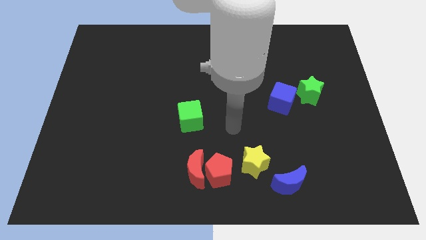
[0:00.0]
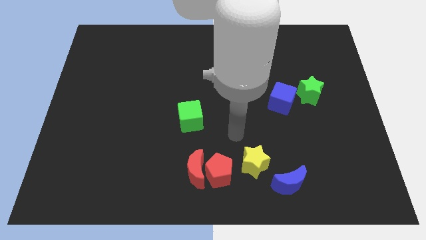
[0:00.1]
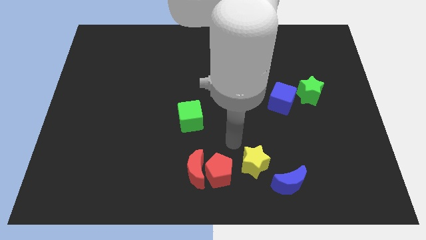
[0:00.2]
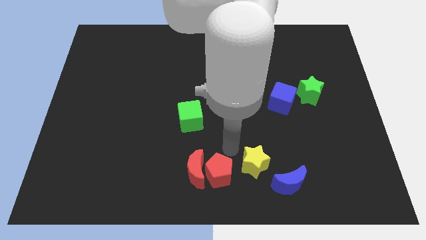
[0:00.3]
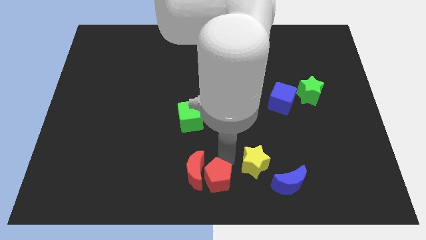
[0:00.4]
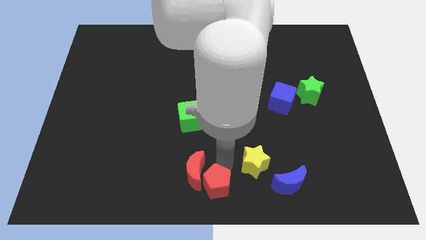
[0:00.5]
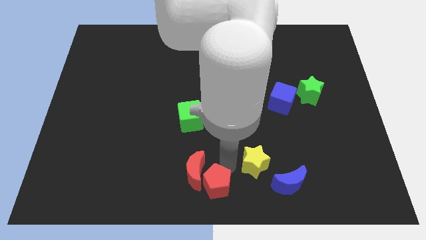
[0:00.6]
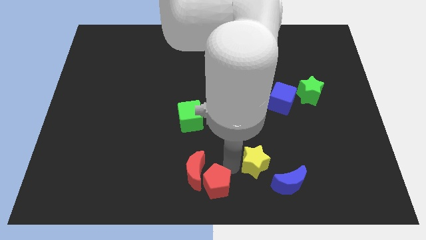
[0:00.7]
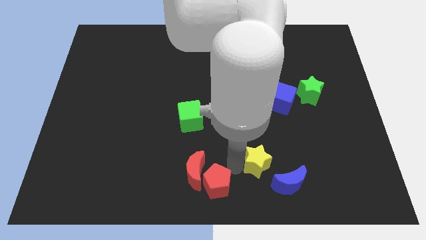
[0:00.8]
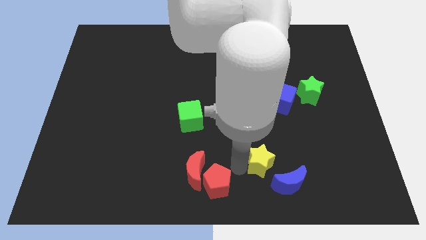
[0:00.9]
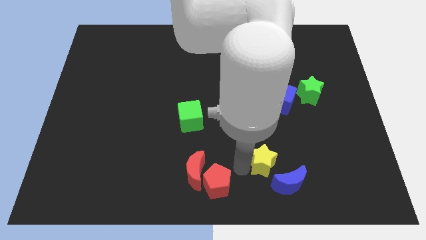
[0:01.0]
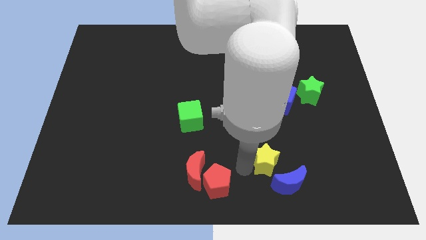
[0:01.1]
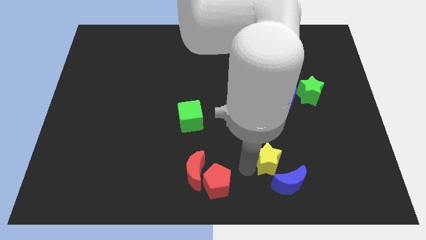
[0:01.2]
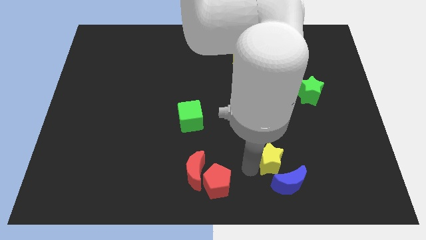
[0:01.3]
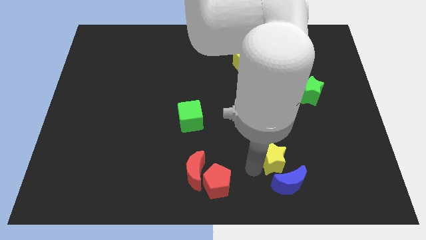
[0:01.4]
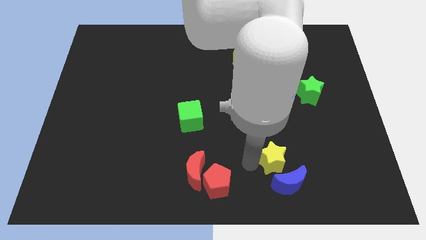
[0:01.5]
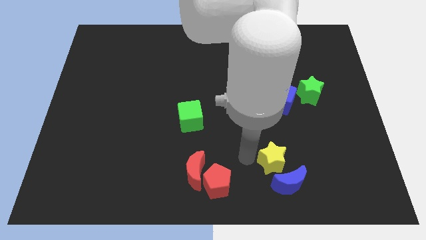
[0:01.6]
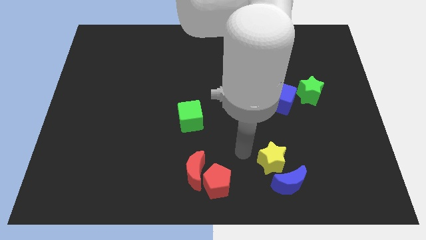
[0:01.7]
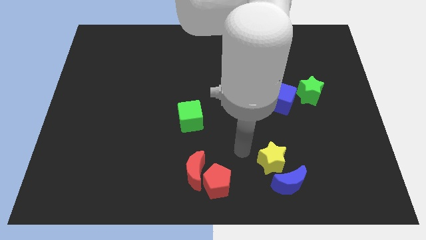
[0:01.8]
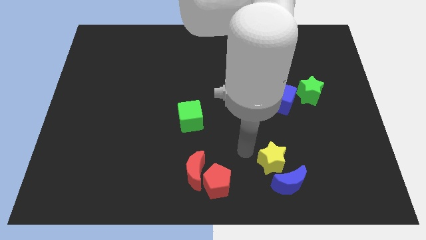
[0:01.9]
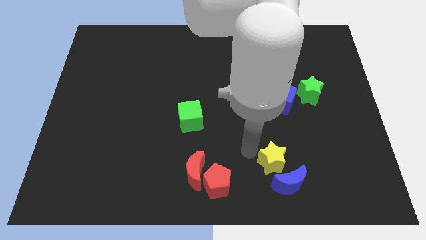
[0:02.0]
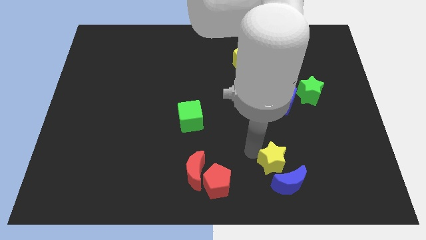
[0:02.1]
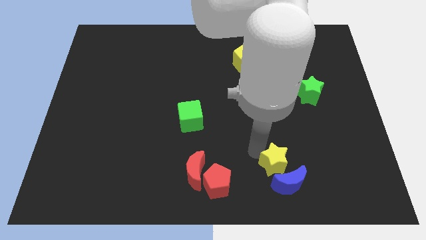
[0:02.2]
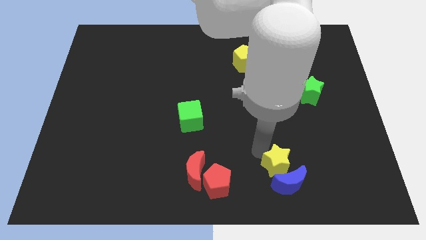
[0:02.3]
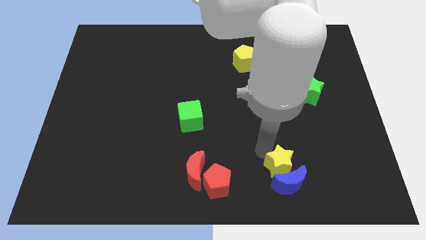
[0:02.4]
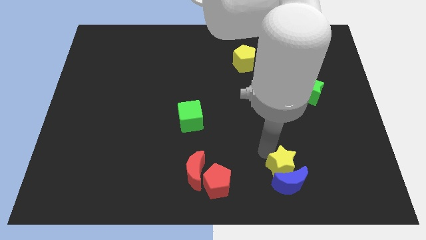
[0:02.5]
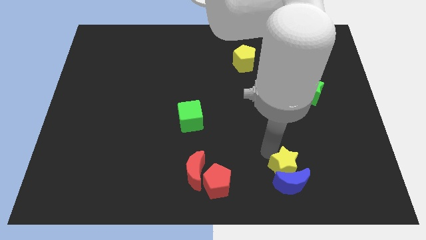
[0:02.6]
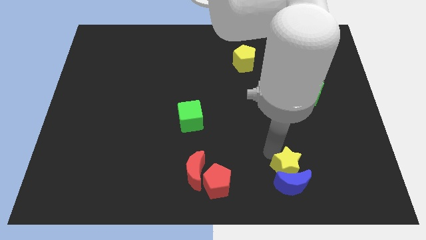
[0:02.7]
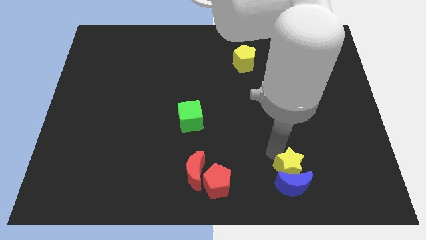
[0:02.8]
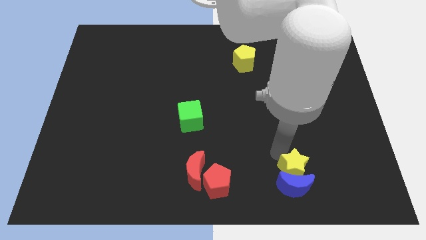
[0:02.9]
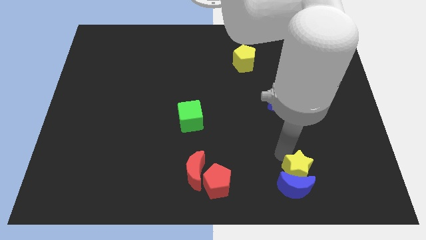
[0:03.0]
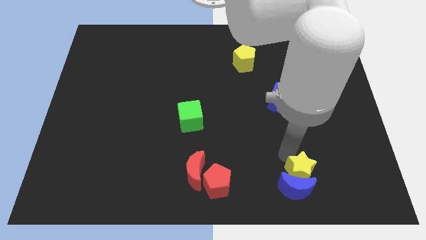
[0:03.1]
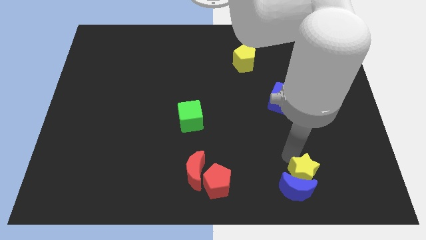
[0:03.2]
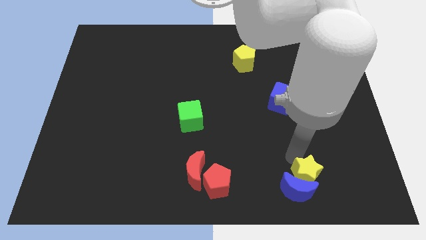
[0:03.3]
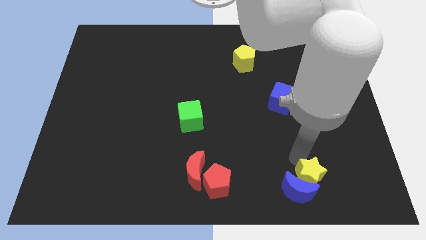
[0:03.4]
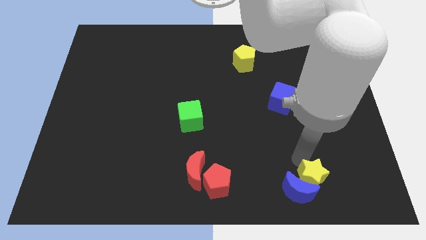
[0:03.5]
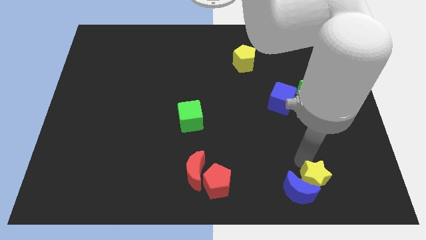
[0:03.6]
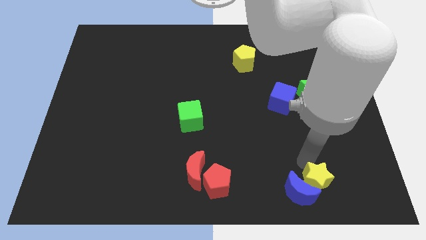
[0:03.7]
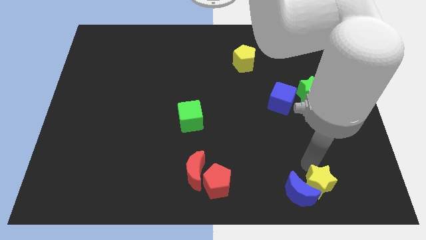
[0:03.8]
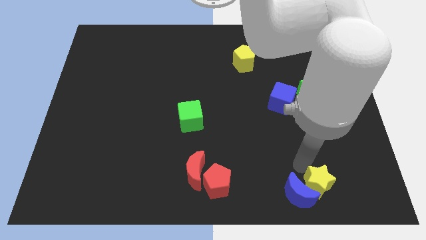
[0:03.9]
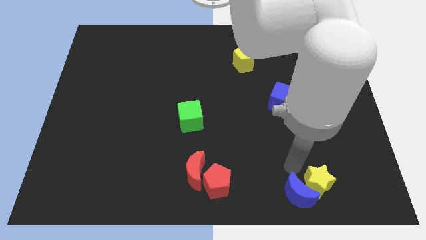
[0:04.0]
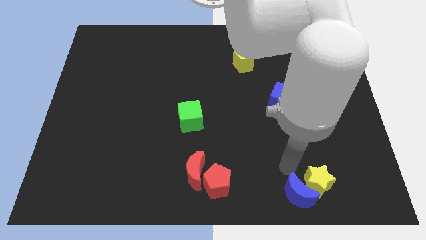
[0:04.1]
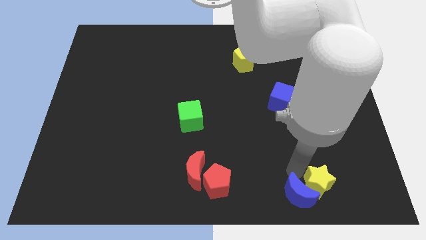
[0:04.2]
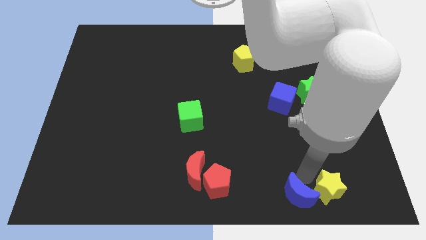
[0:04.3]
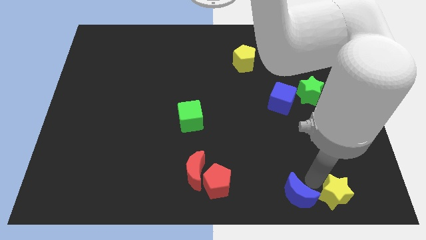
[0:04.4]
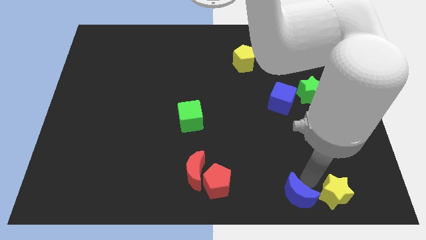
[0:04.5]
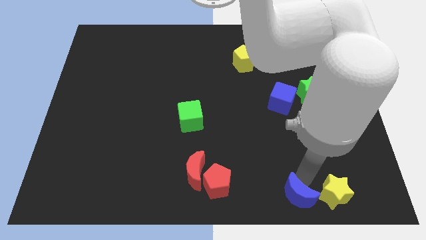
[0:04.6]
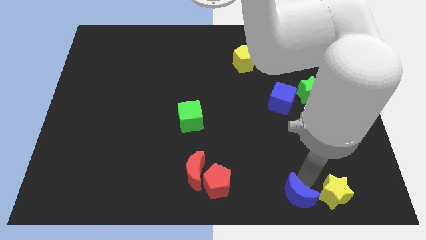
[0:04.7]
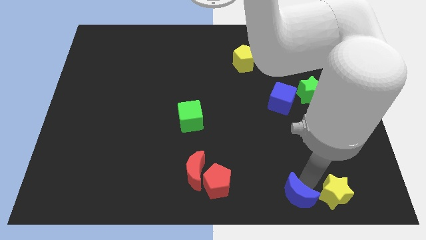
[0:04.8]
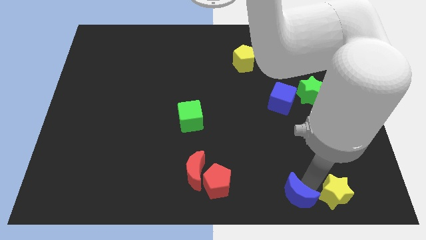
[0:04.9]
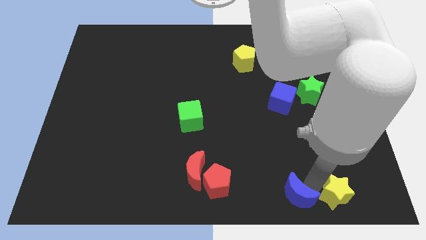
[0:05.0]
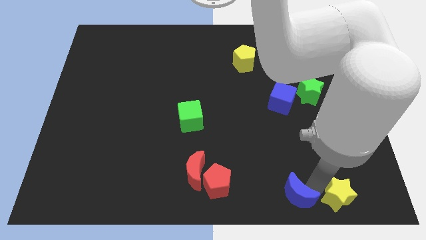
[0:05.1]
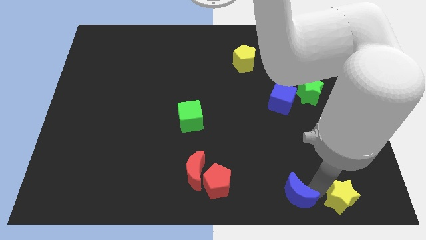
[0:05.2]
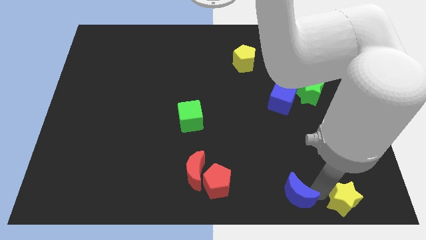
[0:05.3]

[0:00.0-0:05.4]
push the yellow star to the bottom right

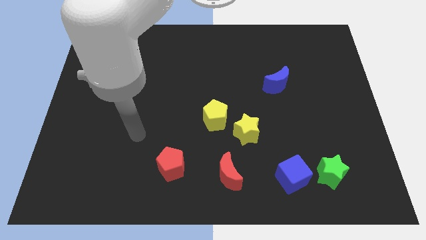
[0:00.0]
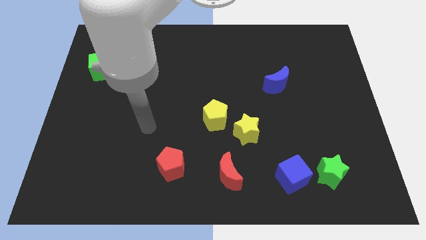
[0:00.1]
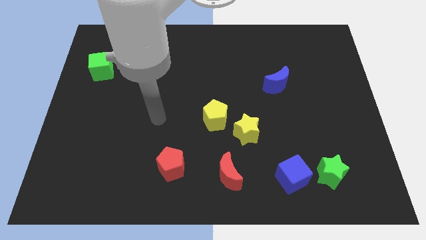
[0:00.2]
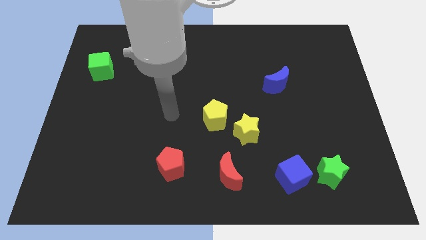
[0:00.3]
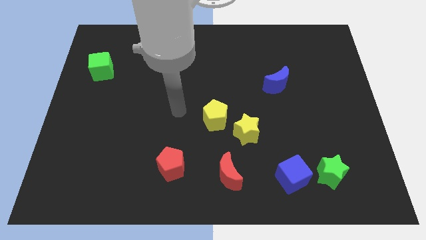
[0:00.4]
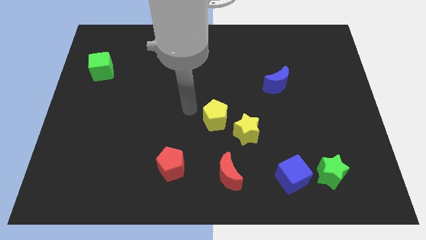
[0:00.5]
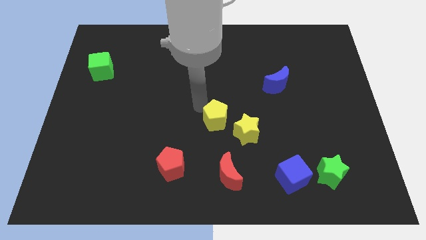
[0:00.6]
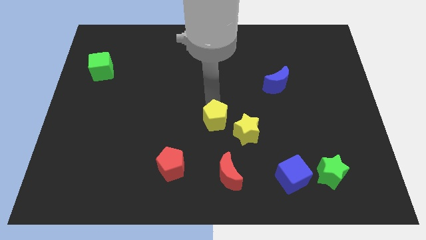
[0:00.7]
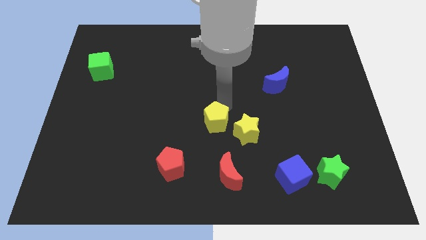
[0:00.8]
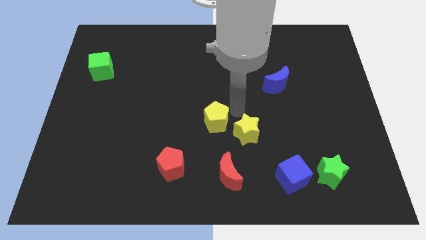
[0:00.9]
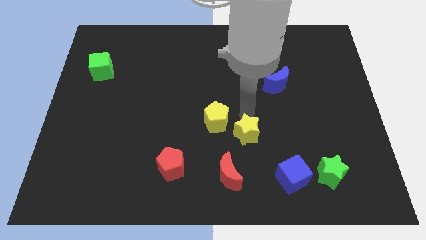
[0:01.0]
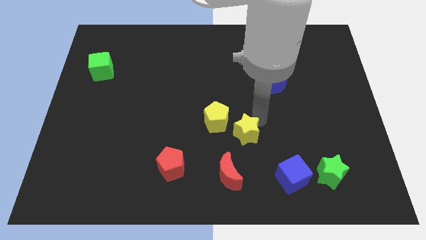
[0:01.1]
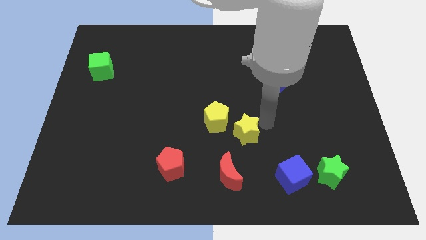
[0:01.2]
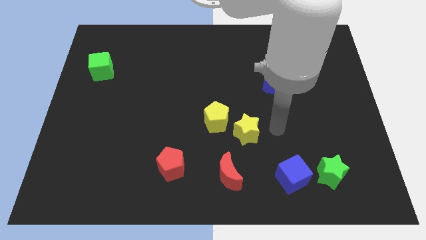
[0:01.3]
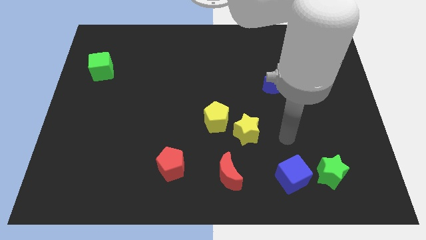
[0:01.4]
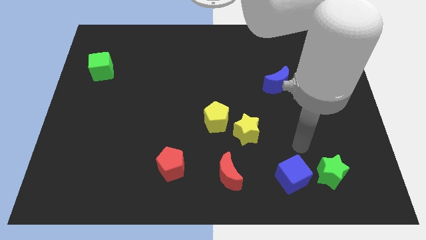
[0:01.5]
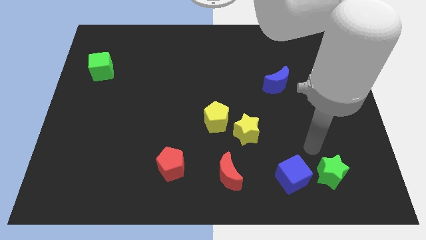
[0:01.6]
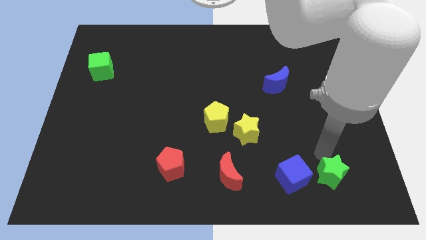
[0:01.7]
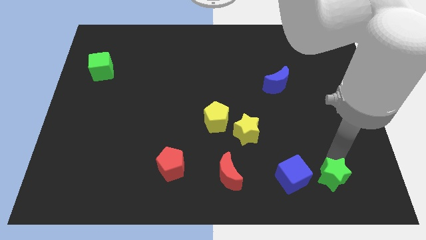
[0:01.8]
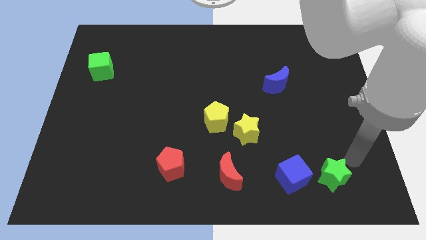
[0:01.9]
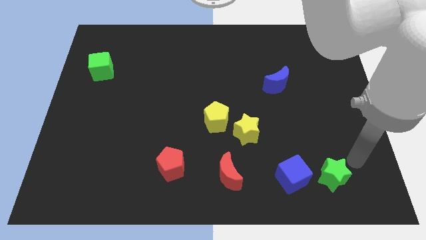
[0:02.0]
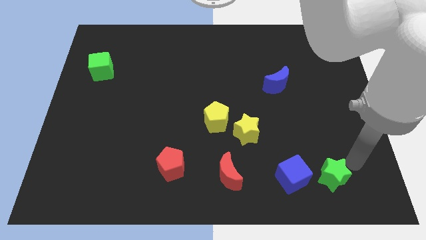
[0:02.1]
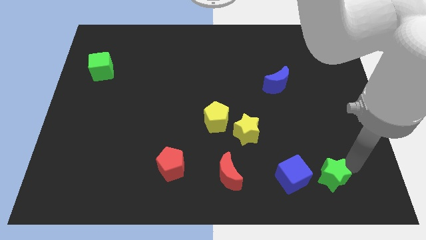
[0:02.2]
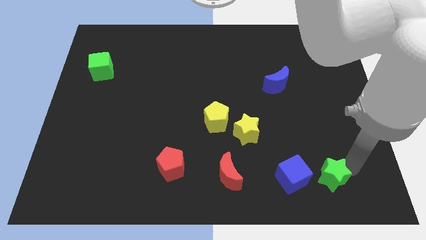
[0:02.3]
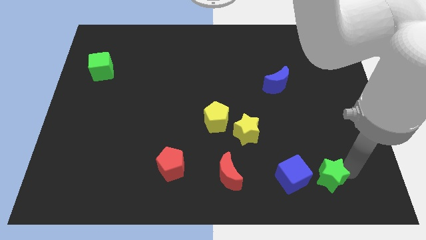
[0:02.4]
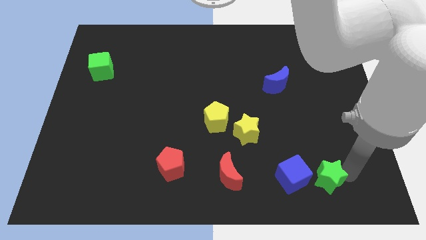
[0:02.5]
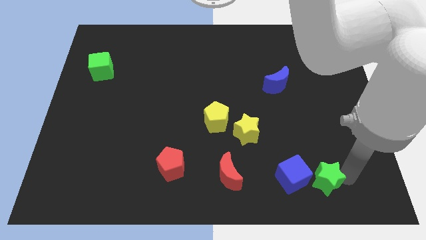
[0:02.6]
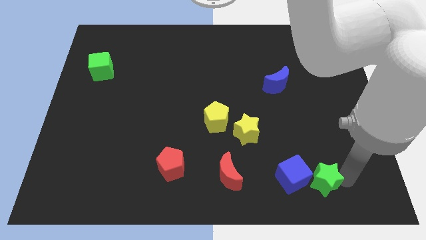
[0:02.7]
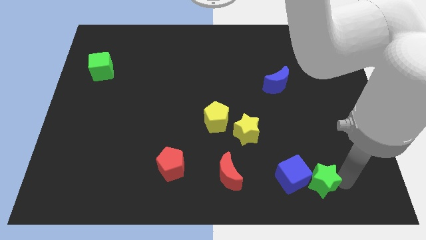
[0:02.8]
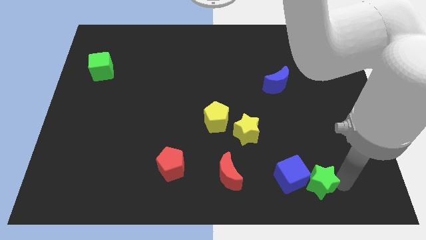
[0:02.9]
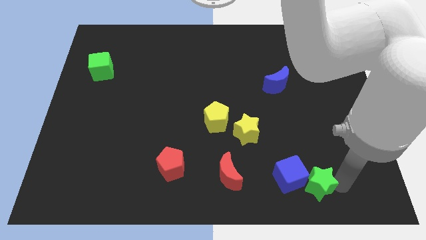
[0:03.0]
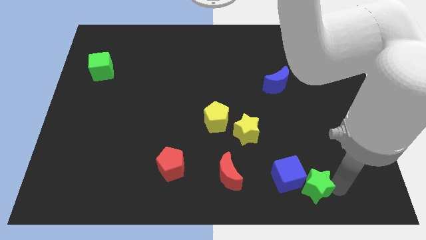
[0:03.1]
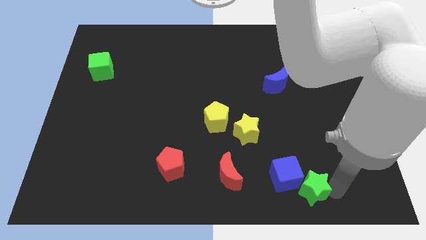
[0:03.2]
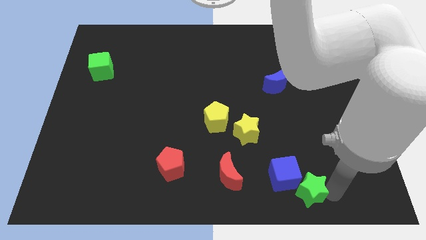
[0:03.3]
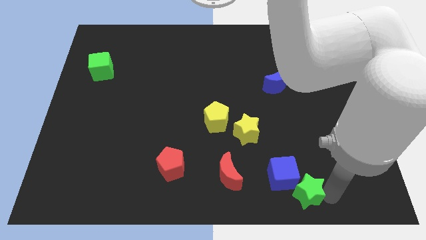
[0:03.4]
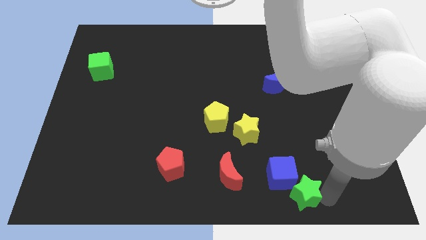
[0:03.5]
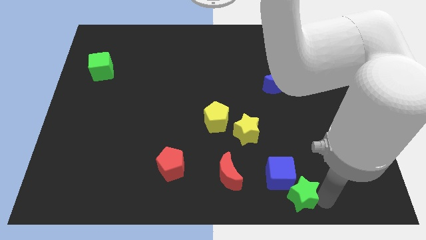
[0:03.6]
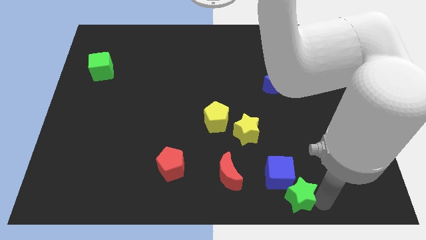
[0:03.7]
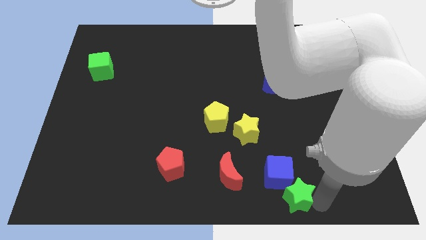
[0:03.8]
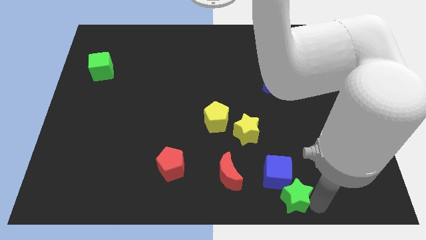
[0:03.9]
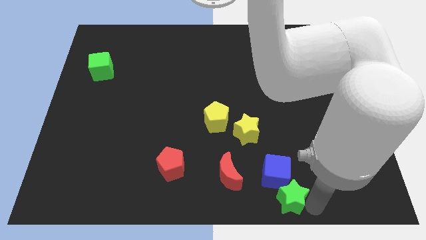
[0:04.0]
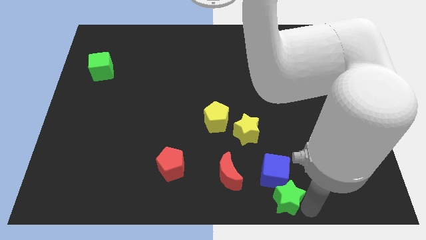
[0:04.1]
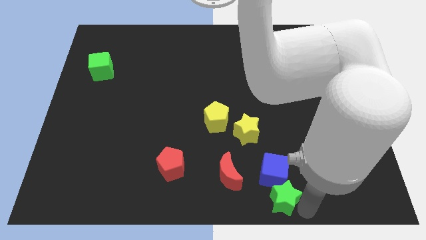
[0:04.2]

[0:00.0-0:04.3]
move the green star to the bottom side
